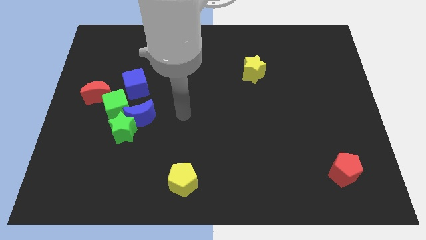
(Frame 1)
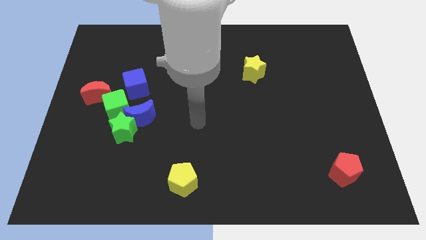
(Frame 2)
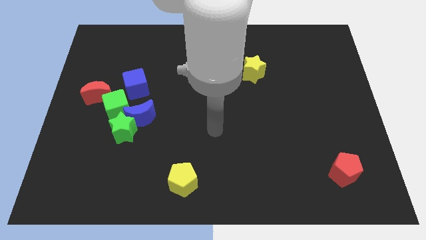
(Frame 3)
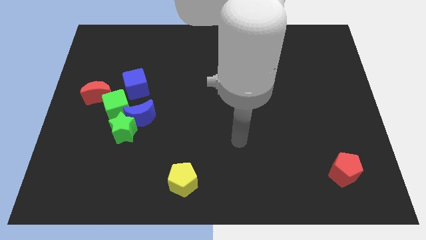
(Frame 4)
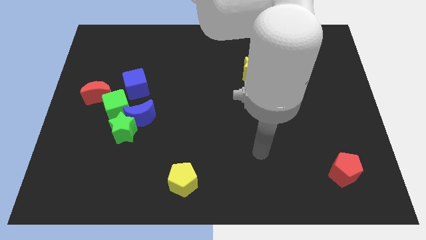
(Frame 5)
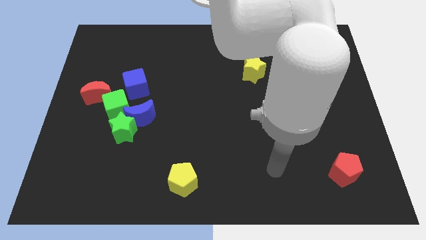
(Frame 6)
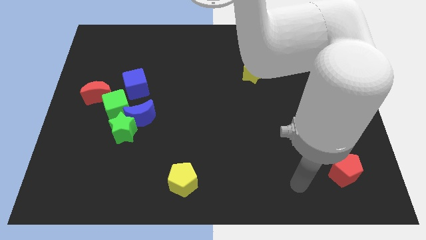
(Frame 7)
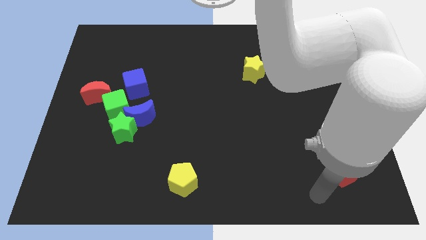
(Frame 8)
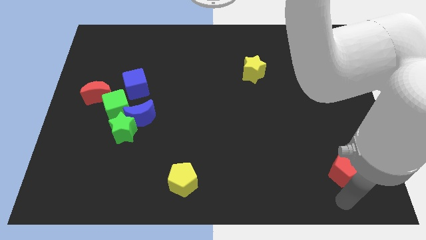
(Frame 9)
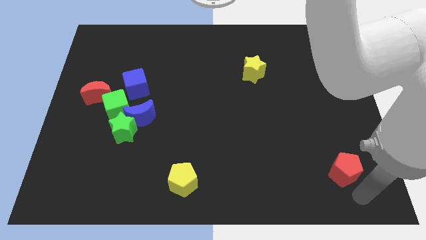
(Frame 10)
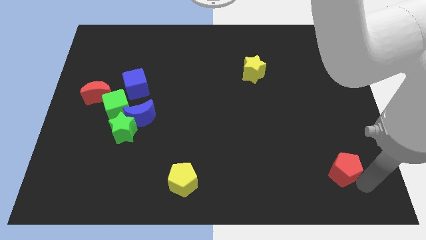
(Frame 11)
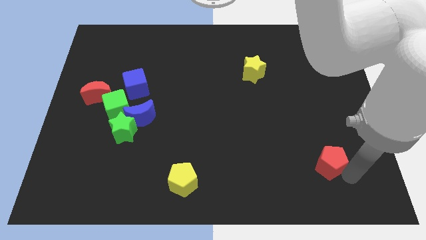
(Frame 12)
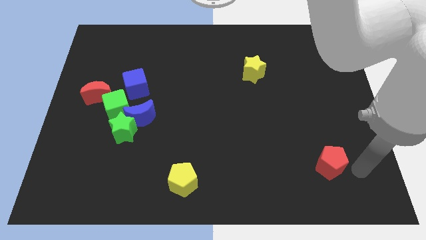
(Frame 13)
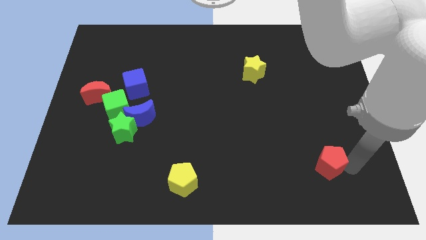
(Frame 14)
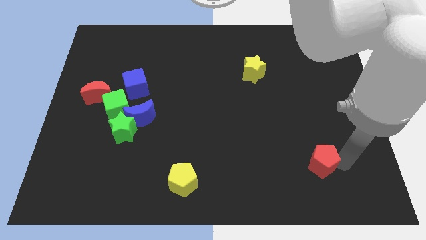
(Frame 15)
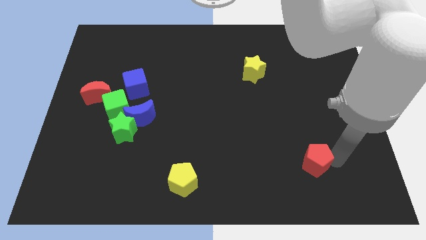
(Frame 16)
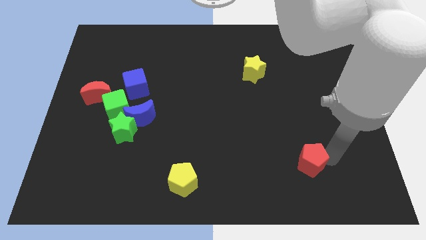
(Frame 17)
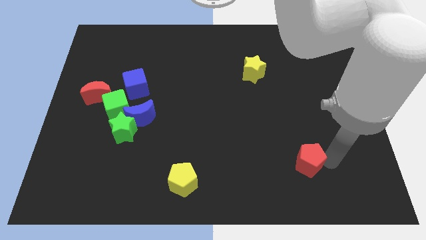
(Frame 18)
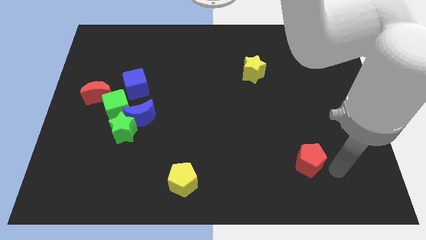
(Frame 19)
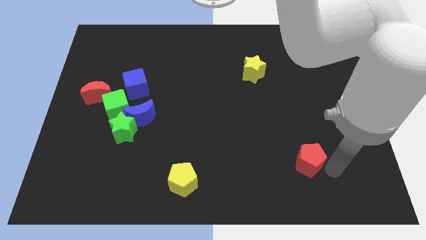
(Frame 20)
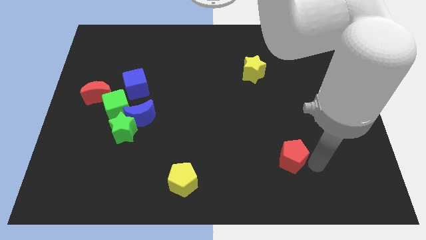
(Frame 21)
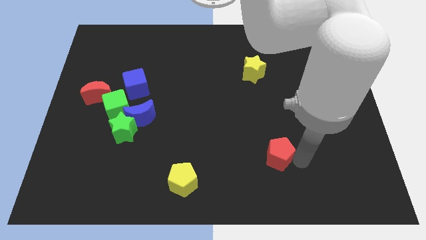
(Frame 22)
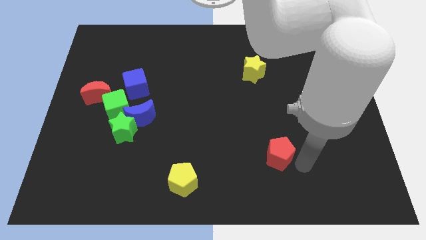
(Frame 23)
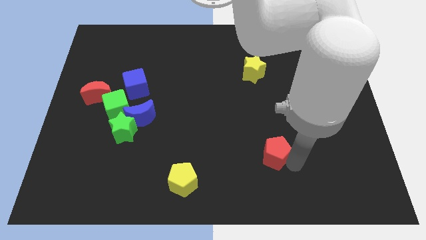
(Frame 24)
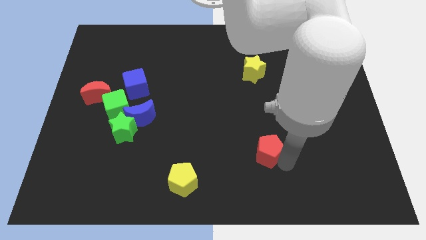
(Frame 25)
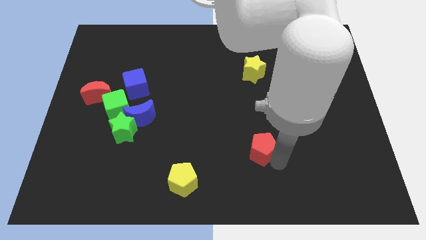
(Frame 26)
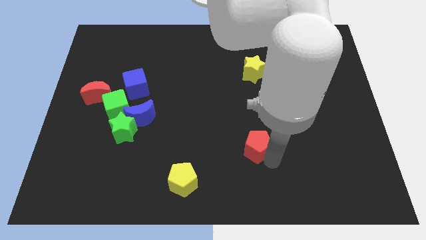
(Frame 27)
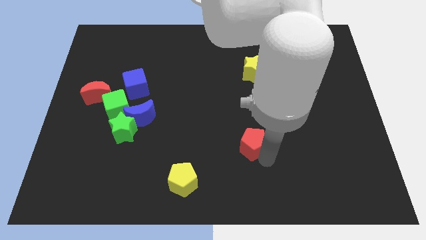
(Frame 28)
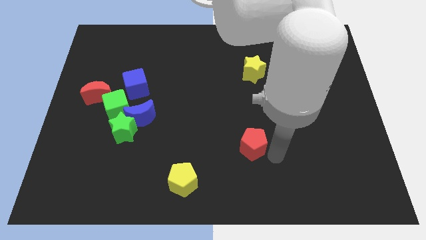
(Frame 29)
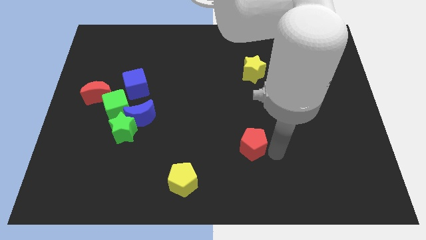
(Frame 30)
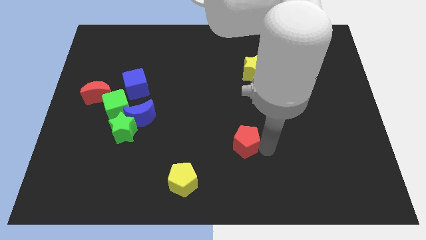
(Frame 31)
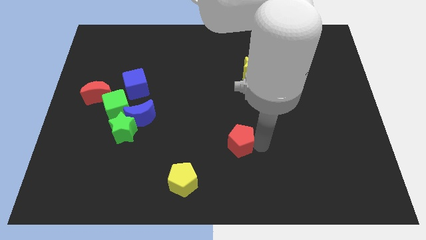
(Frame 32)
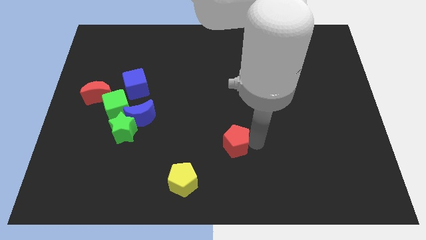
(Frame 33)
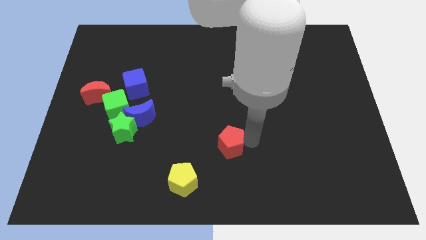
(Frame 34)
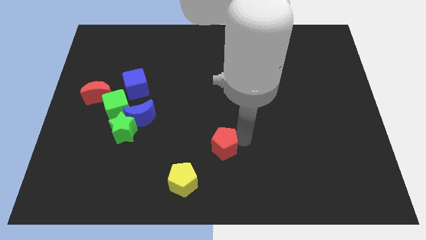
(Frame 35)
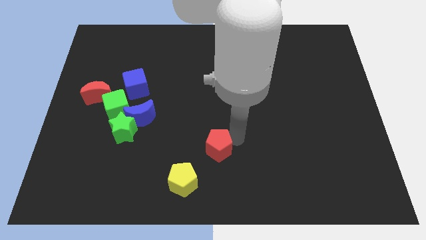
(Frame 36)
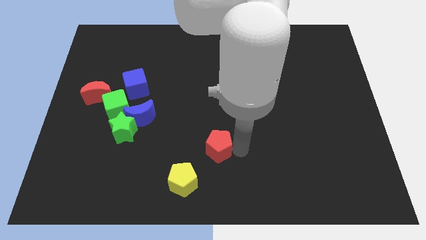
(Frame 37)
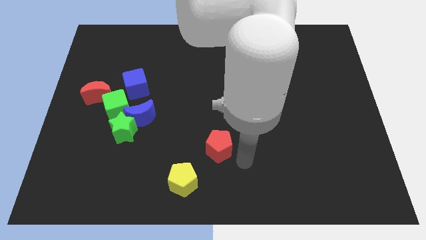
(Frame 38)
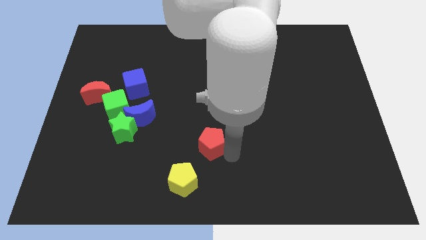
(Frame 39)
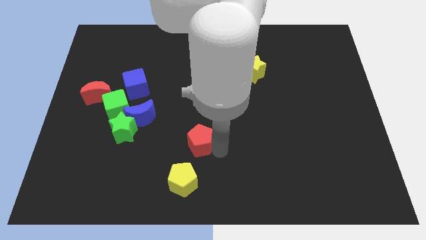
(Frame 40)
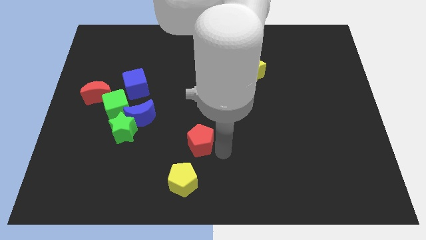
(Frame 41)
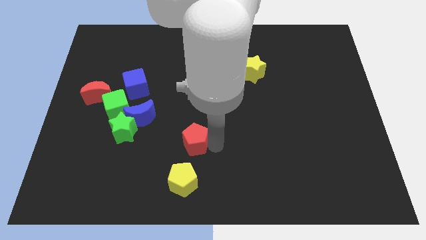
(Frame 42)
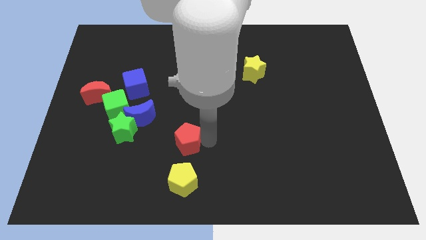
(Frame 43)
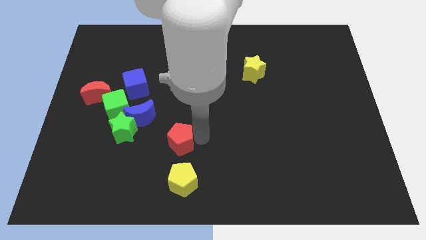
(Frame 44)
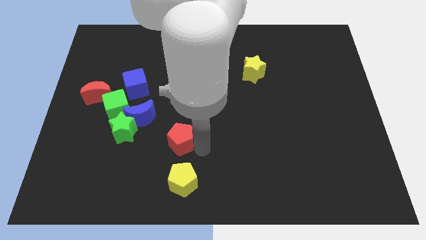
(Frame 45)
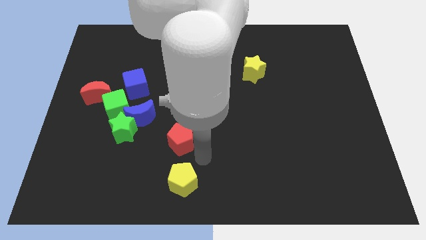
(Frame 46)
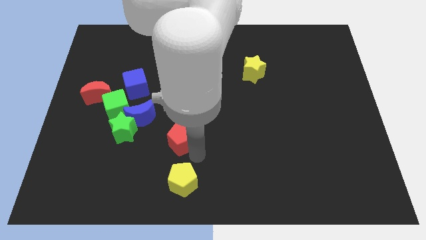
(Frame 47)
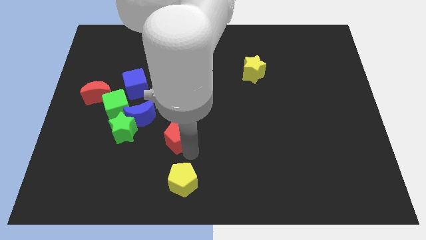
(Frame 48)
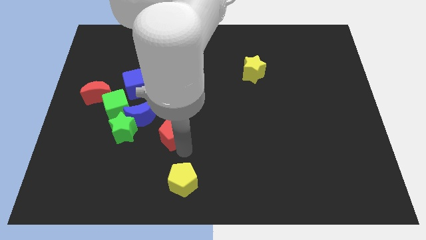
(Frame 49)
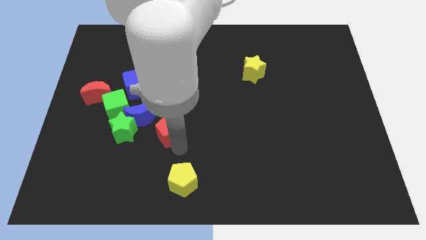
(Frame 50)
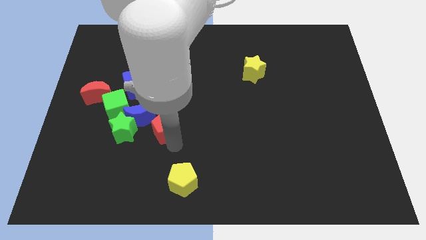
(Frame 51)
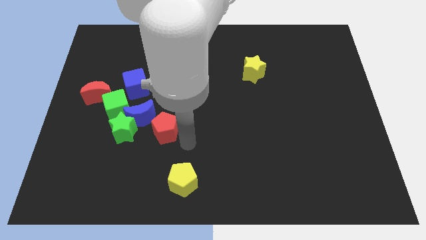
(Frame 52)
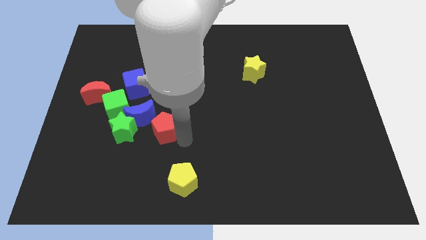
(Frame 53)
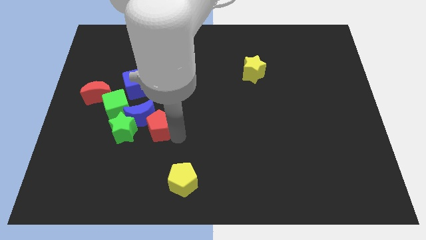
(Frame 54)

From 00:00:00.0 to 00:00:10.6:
put the red pentagon to the blue moon

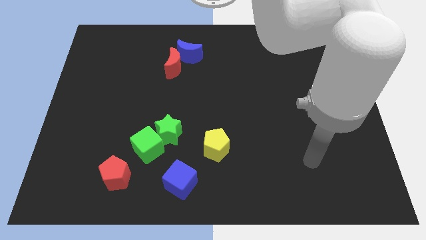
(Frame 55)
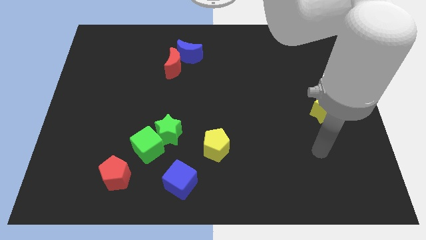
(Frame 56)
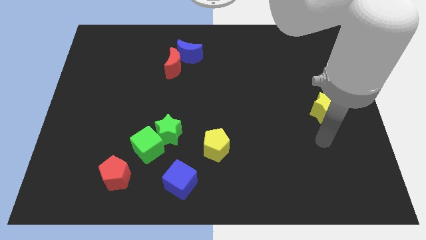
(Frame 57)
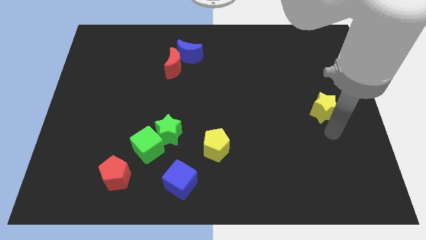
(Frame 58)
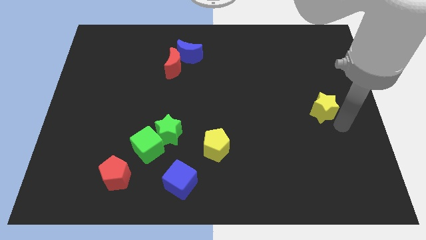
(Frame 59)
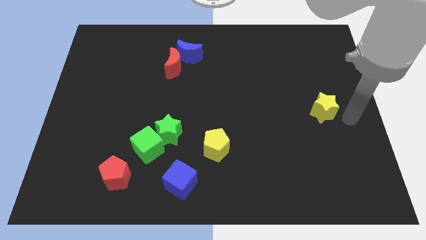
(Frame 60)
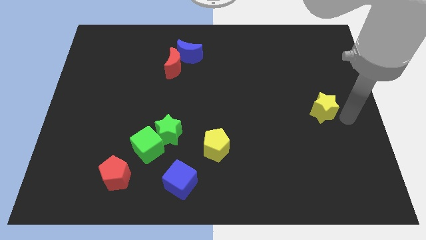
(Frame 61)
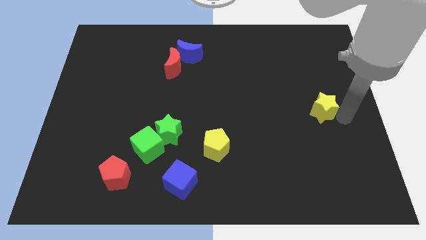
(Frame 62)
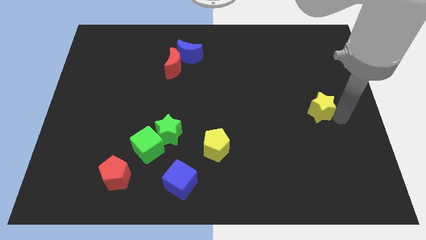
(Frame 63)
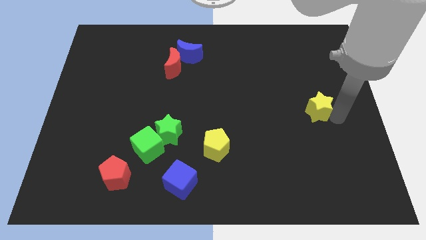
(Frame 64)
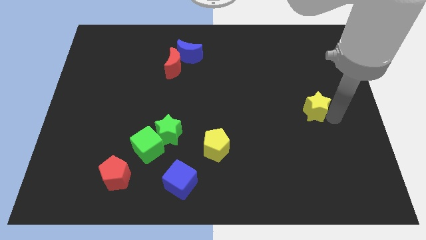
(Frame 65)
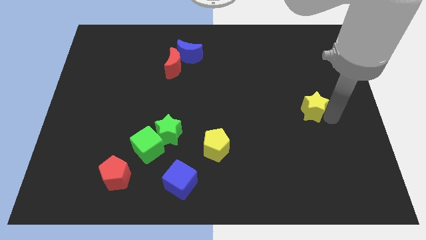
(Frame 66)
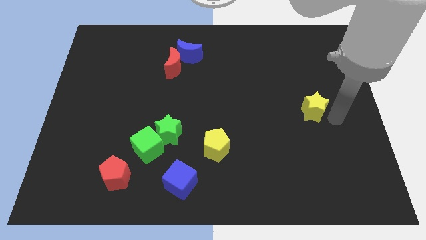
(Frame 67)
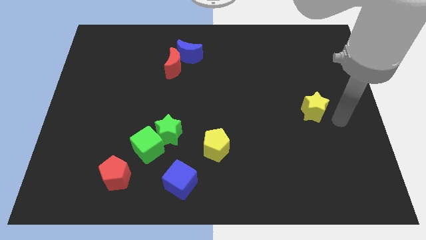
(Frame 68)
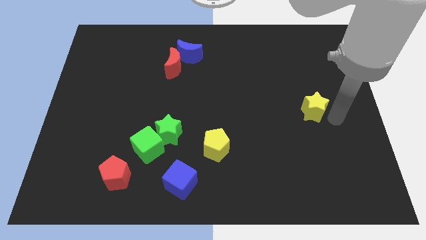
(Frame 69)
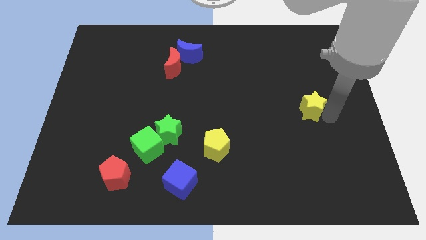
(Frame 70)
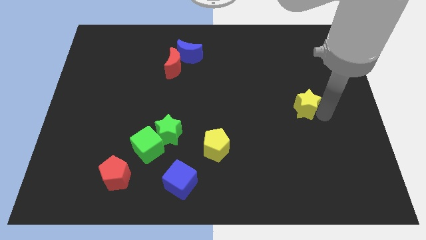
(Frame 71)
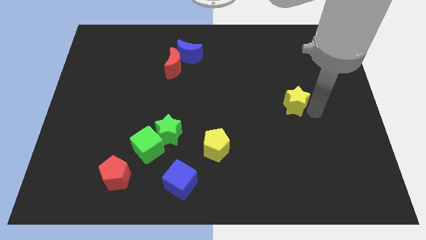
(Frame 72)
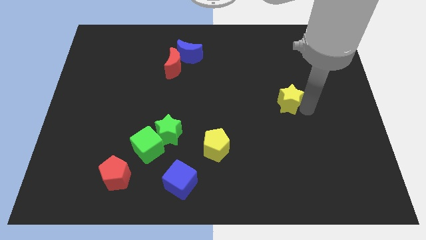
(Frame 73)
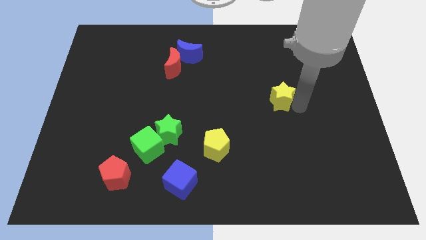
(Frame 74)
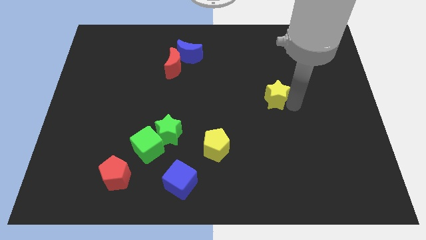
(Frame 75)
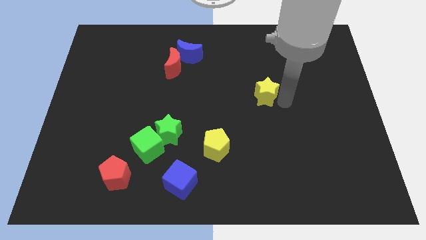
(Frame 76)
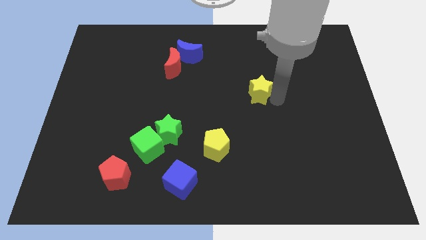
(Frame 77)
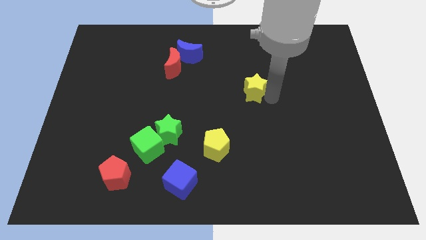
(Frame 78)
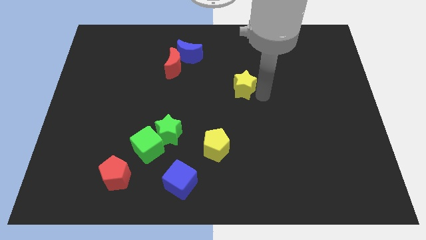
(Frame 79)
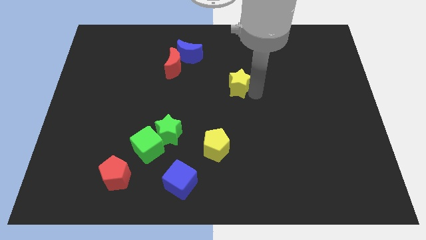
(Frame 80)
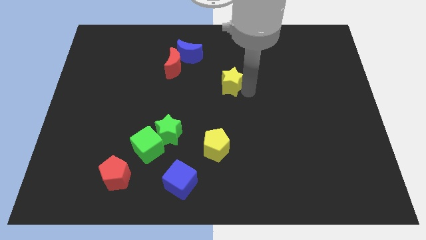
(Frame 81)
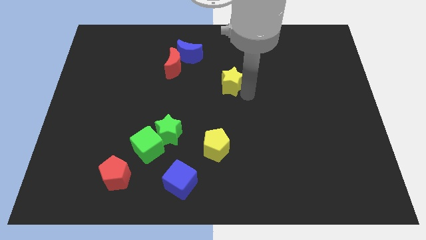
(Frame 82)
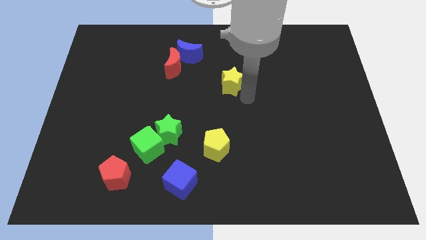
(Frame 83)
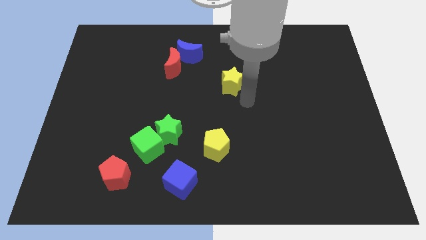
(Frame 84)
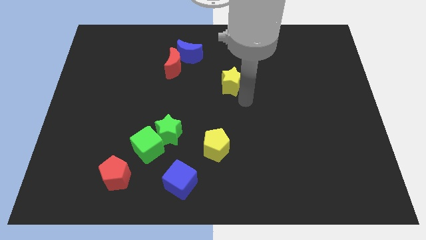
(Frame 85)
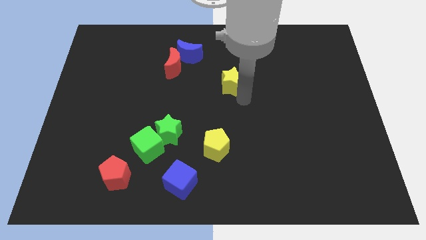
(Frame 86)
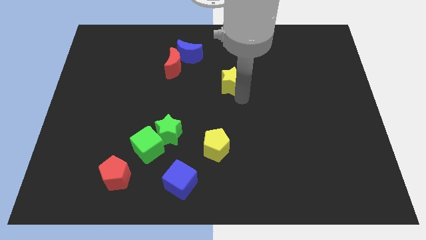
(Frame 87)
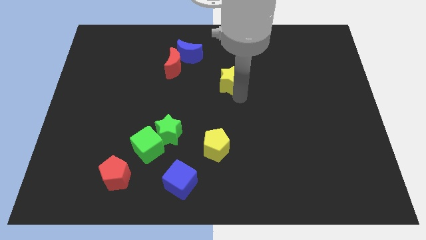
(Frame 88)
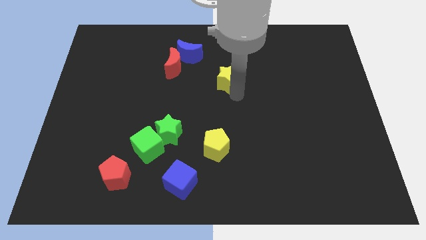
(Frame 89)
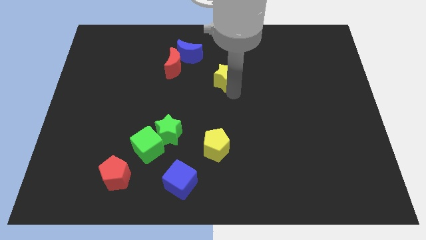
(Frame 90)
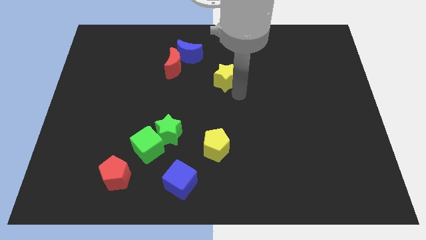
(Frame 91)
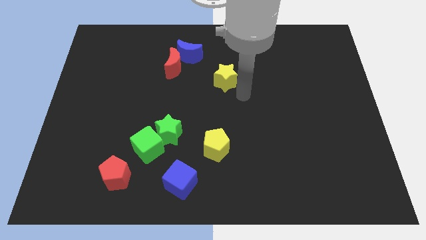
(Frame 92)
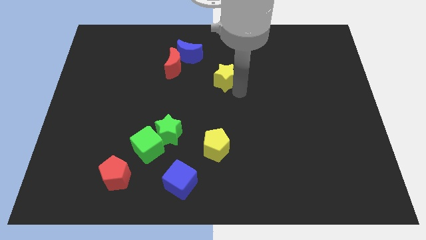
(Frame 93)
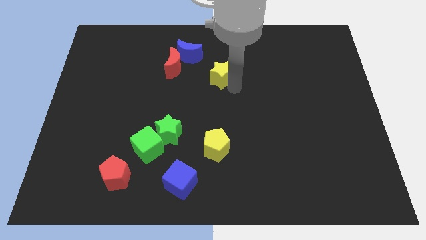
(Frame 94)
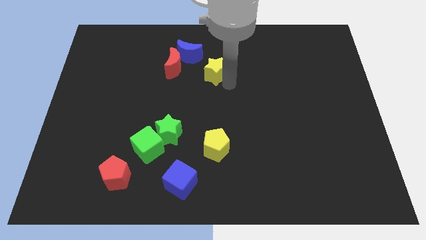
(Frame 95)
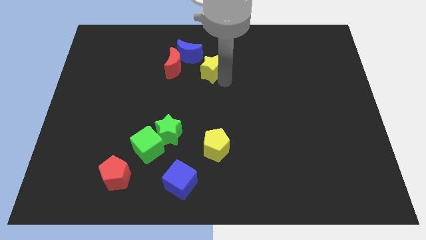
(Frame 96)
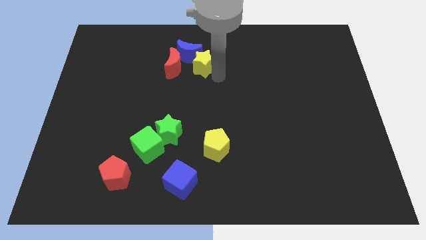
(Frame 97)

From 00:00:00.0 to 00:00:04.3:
move the yellow star to the blue moon
